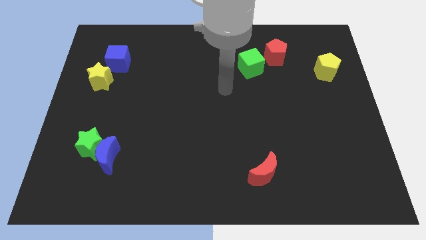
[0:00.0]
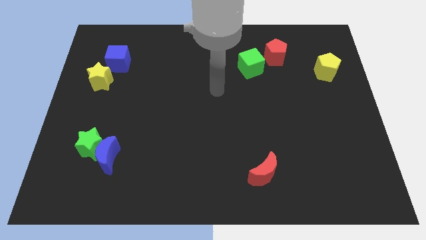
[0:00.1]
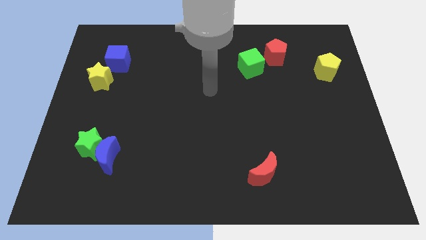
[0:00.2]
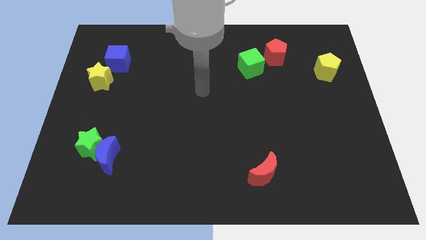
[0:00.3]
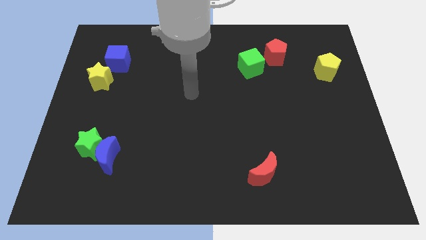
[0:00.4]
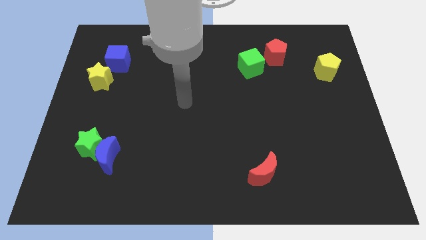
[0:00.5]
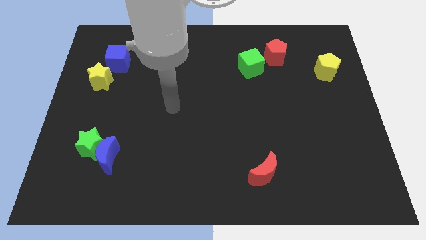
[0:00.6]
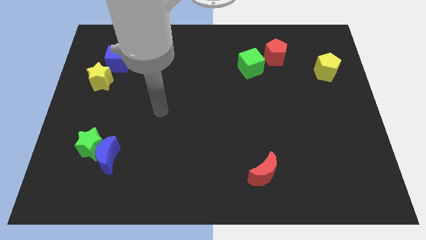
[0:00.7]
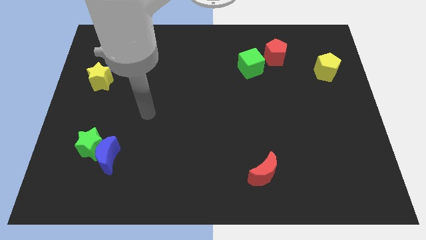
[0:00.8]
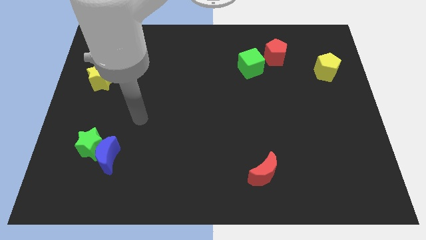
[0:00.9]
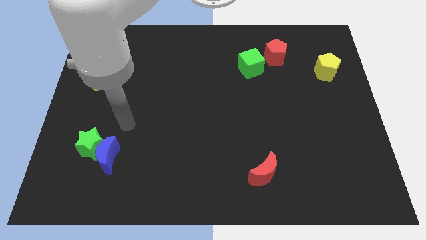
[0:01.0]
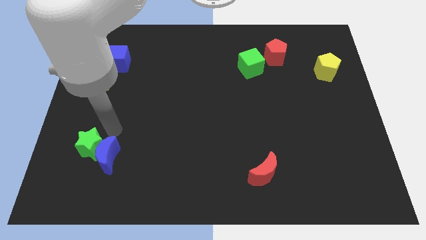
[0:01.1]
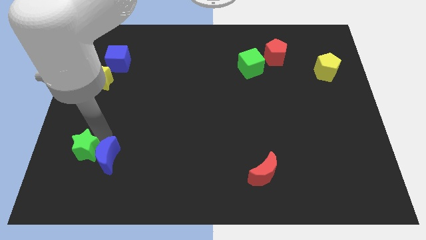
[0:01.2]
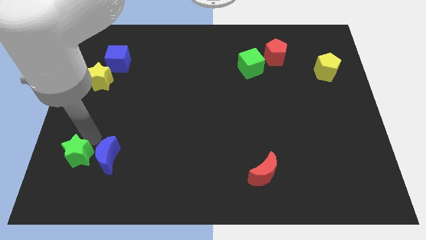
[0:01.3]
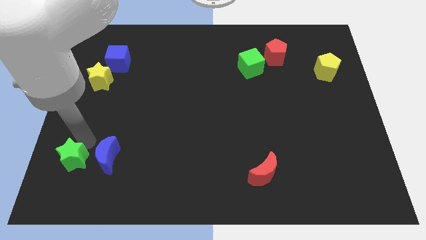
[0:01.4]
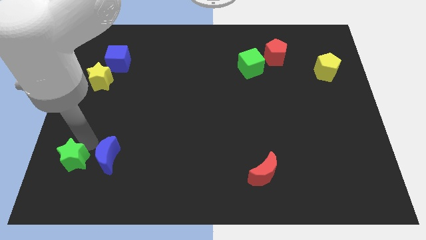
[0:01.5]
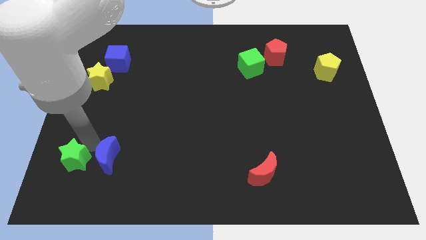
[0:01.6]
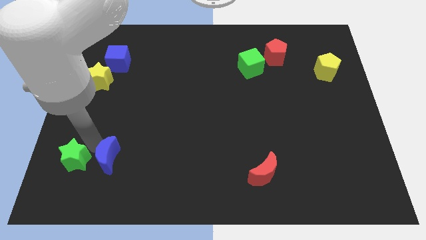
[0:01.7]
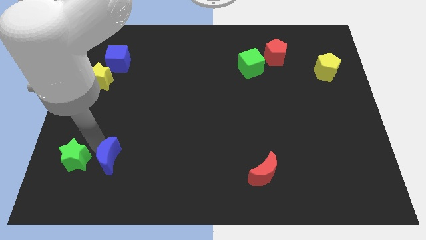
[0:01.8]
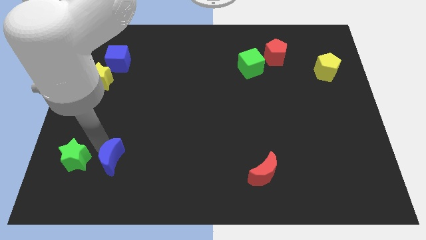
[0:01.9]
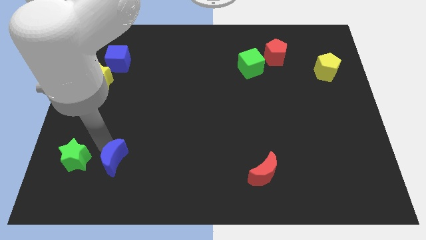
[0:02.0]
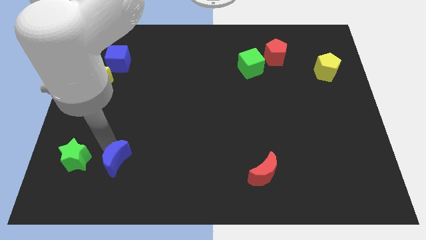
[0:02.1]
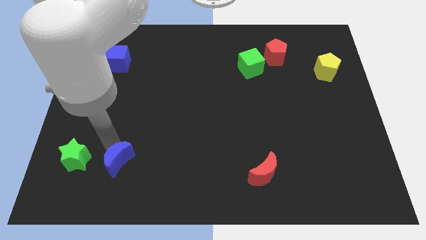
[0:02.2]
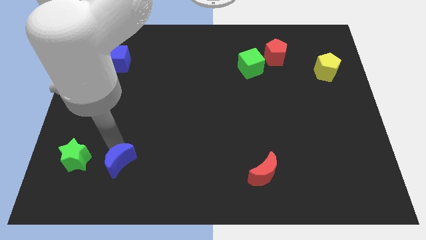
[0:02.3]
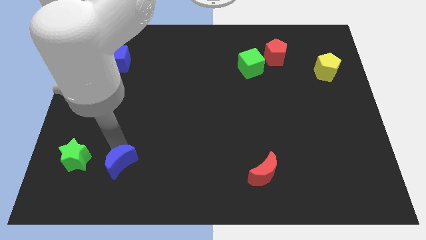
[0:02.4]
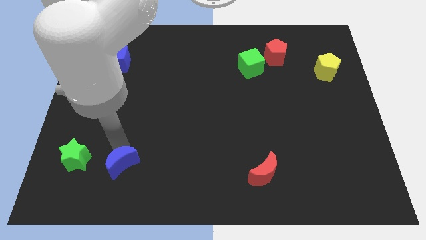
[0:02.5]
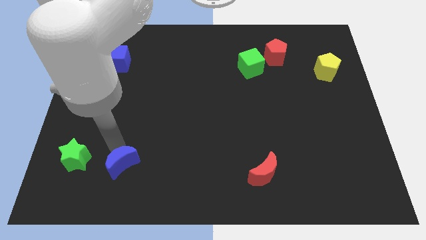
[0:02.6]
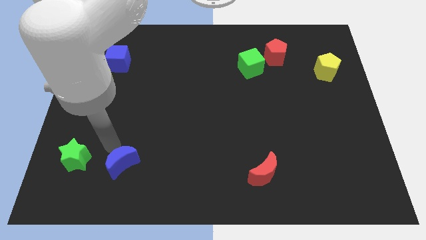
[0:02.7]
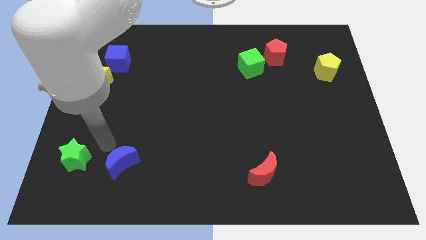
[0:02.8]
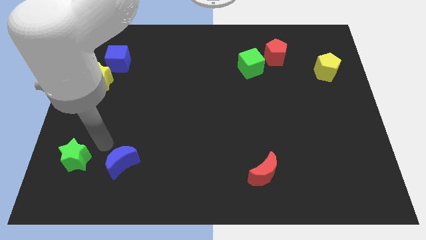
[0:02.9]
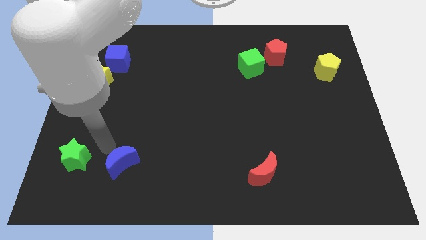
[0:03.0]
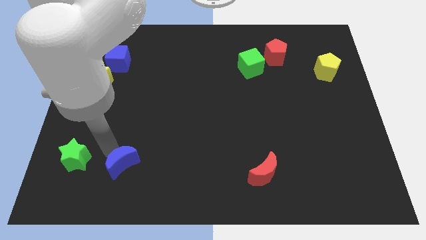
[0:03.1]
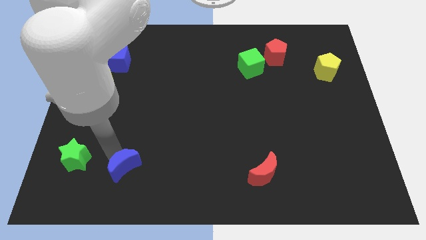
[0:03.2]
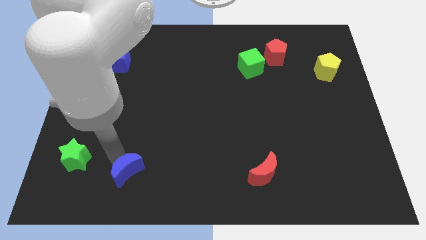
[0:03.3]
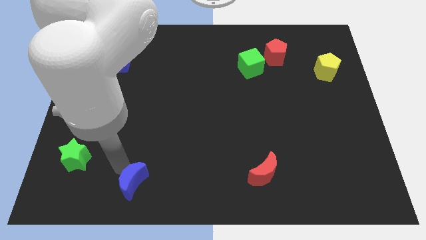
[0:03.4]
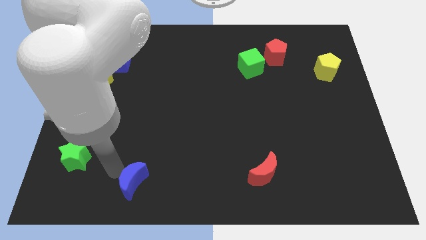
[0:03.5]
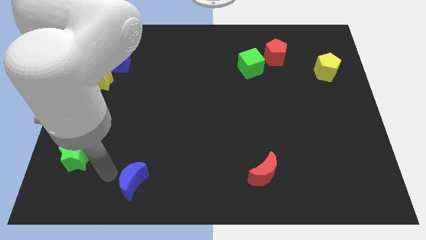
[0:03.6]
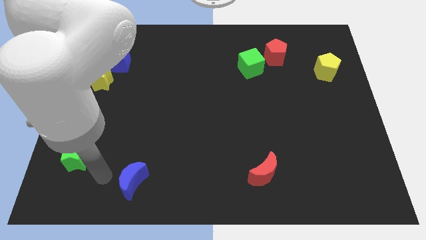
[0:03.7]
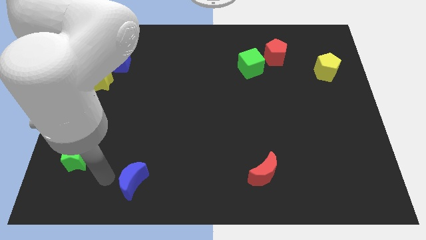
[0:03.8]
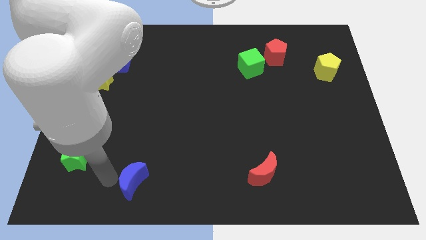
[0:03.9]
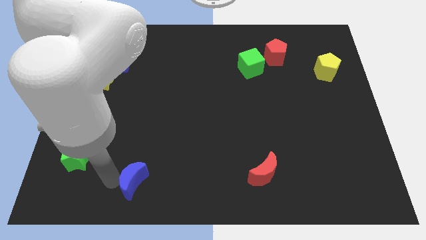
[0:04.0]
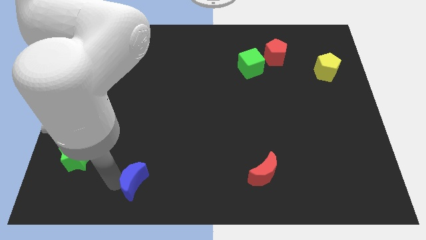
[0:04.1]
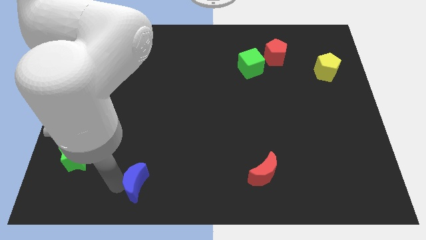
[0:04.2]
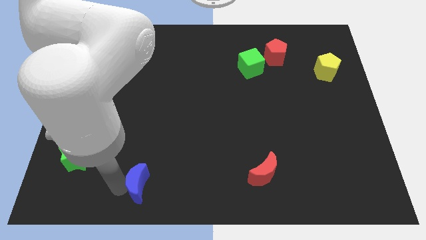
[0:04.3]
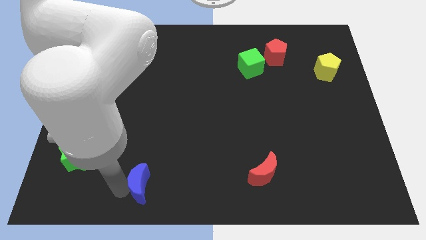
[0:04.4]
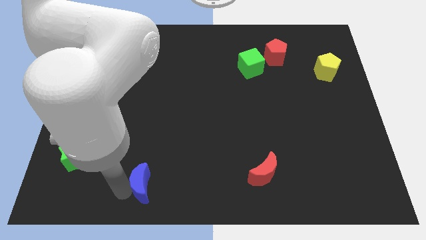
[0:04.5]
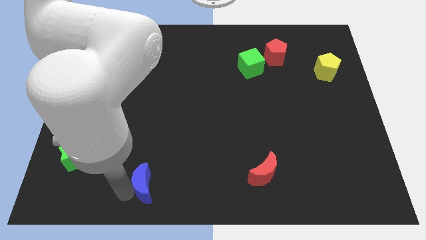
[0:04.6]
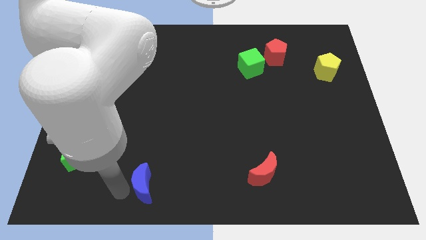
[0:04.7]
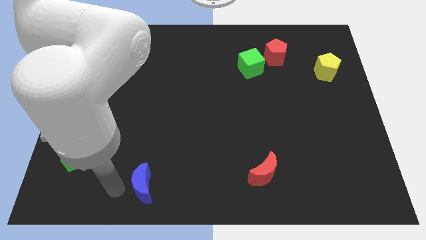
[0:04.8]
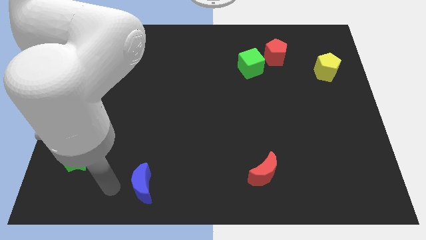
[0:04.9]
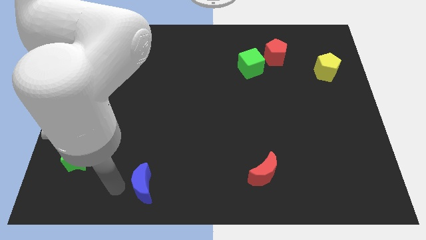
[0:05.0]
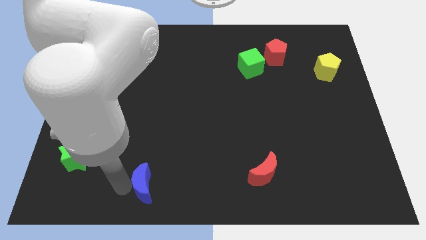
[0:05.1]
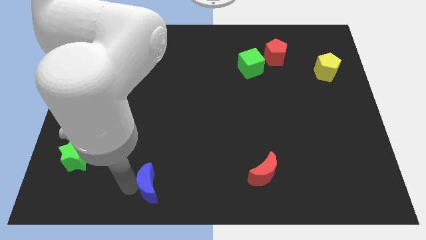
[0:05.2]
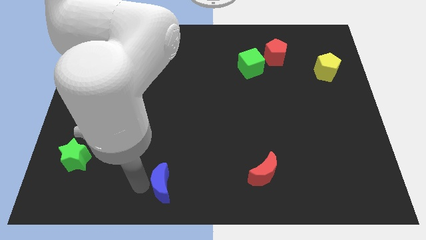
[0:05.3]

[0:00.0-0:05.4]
push the blue moon to the bottom
